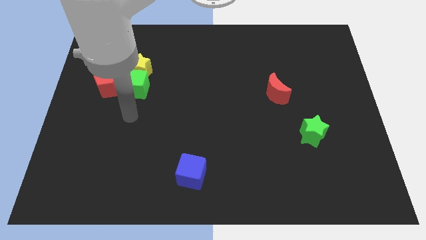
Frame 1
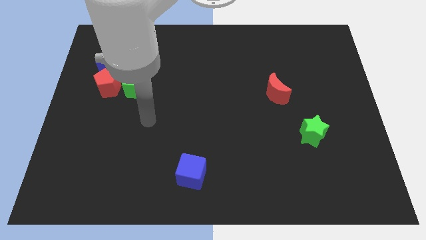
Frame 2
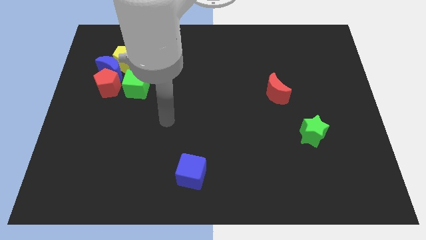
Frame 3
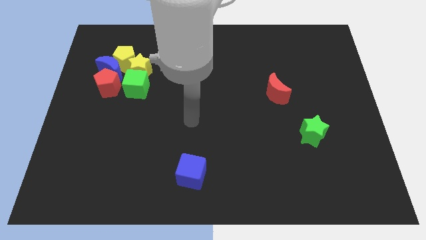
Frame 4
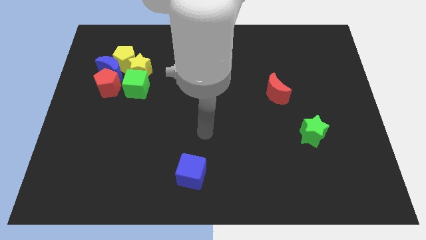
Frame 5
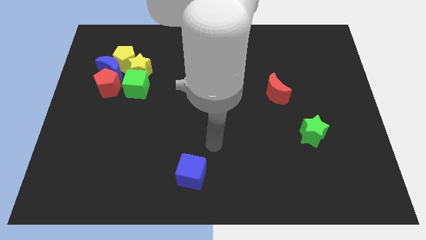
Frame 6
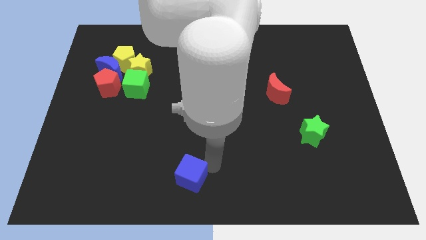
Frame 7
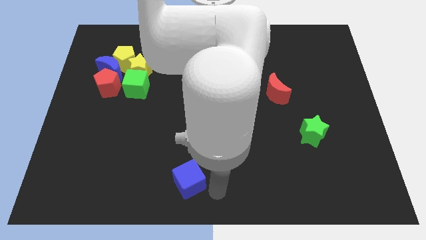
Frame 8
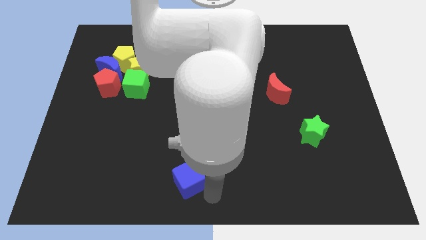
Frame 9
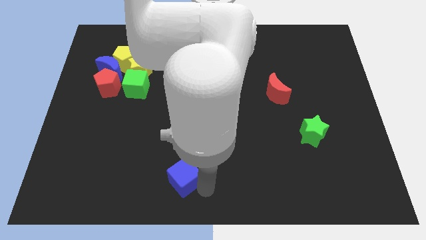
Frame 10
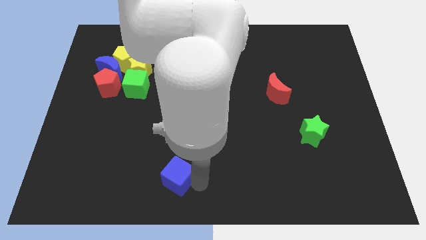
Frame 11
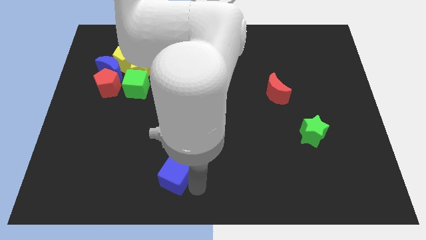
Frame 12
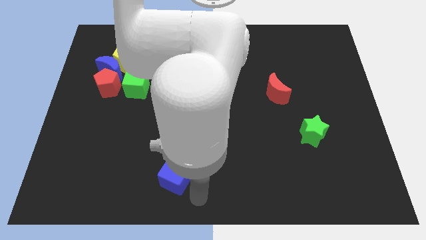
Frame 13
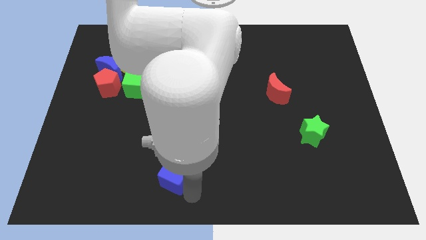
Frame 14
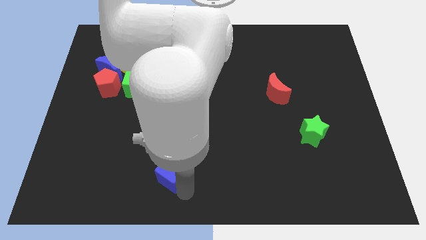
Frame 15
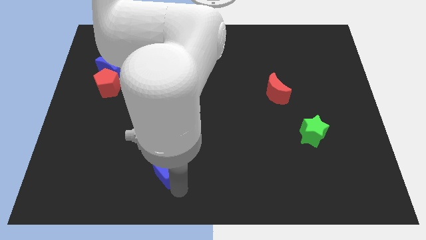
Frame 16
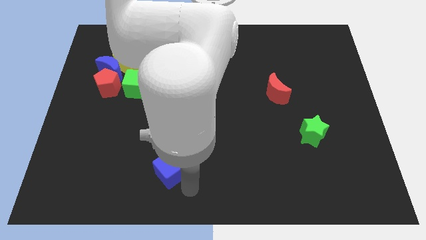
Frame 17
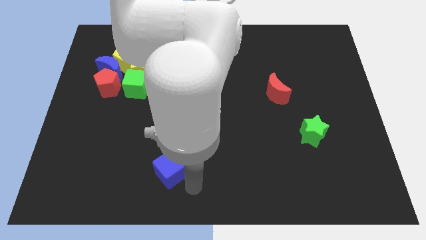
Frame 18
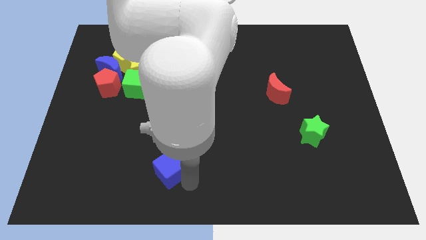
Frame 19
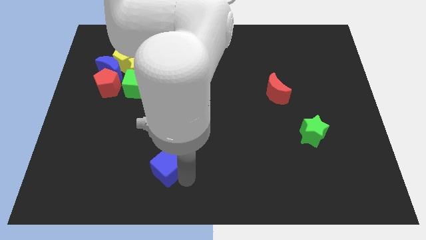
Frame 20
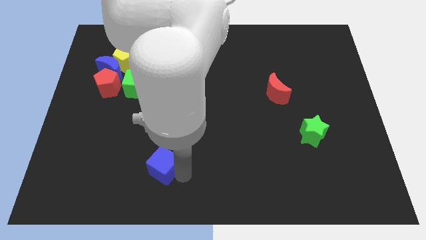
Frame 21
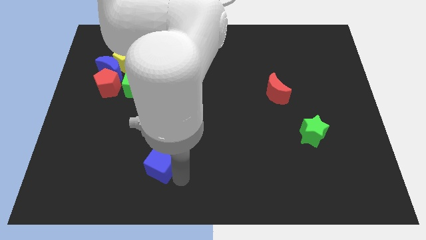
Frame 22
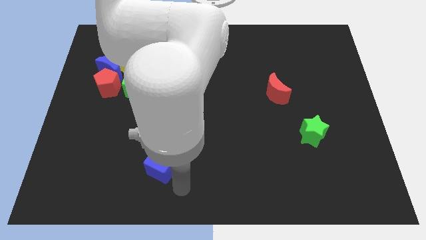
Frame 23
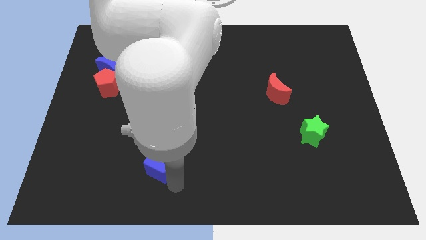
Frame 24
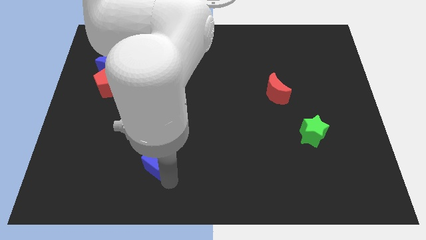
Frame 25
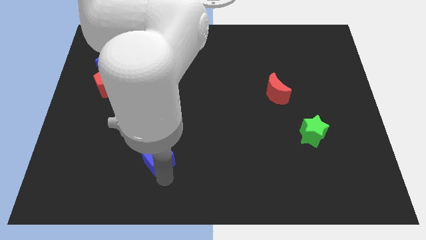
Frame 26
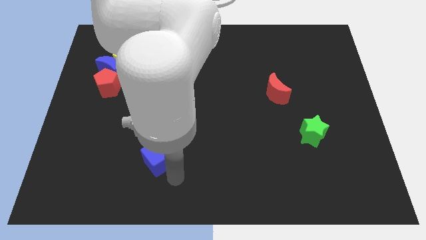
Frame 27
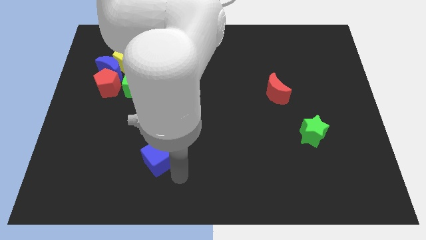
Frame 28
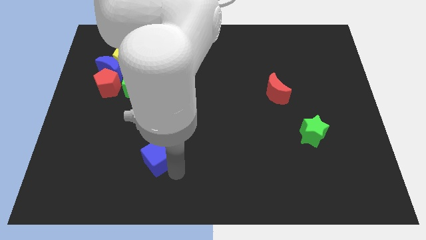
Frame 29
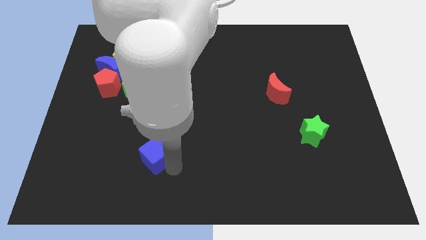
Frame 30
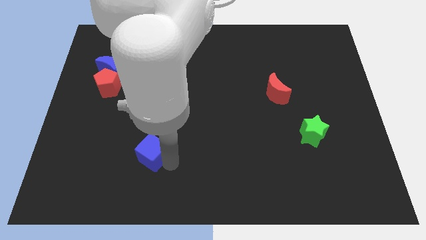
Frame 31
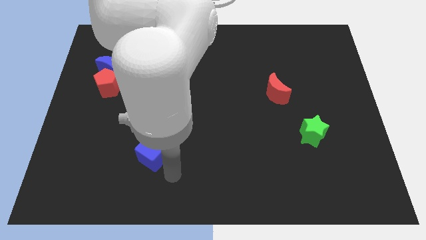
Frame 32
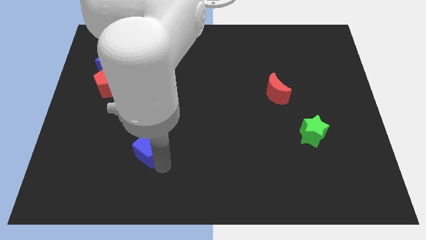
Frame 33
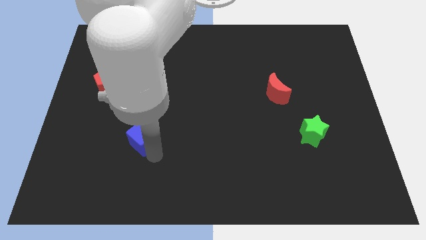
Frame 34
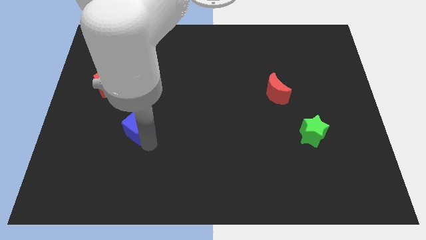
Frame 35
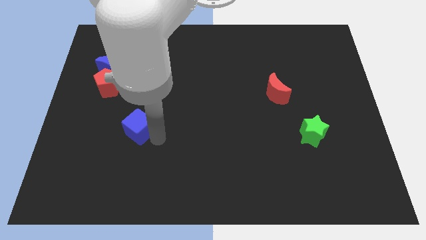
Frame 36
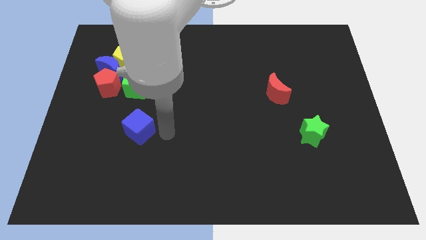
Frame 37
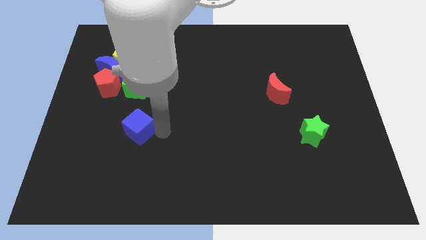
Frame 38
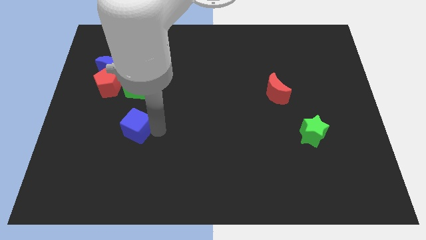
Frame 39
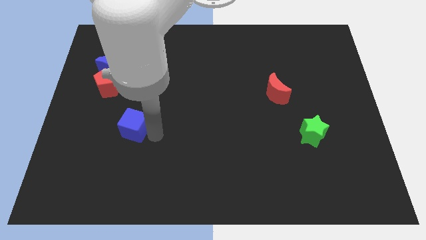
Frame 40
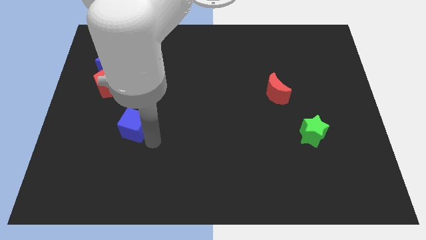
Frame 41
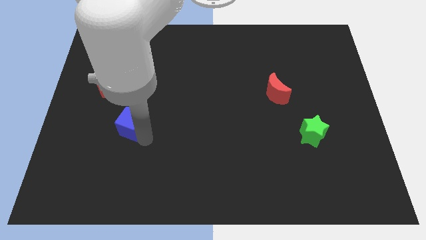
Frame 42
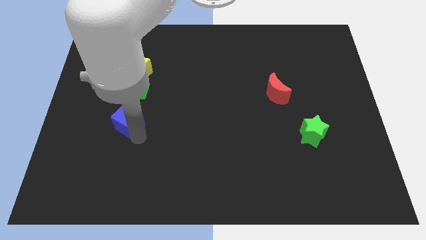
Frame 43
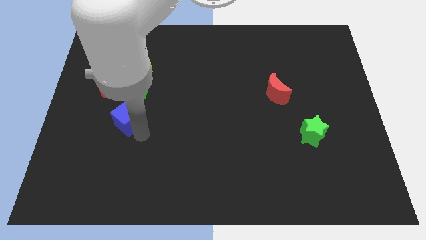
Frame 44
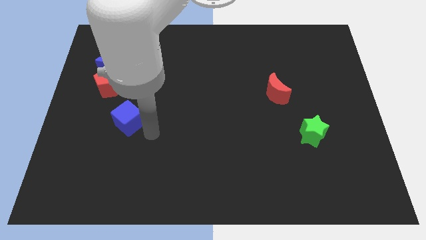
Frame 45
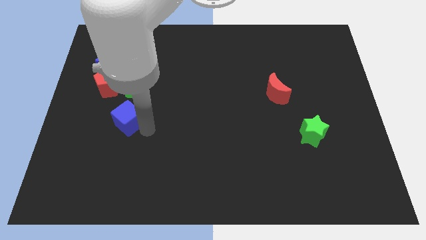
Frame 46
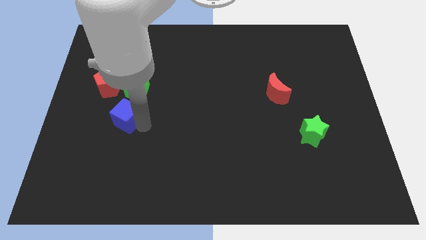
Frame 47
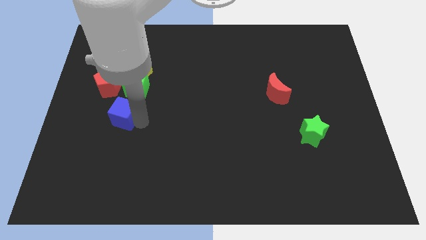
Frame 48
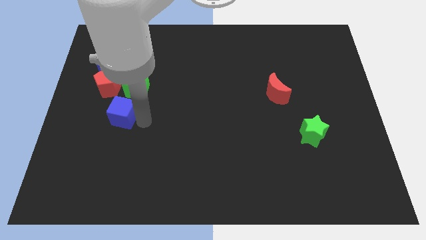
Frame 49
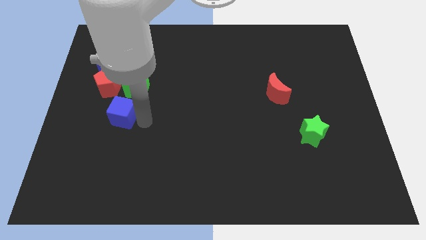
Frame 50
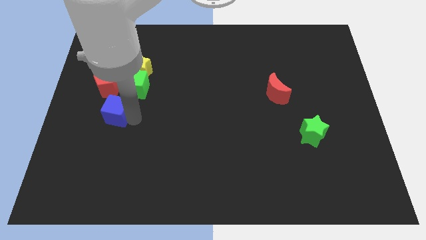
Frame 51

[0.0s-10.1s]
put the blue cube to the bottom of the blue moon

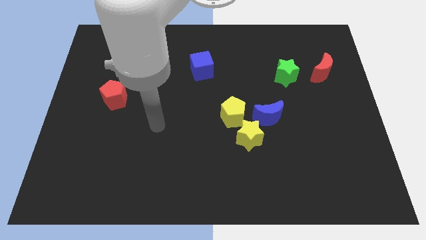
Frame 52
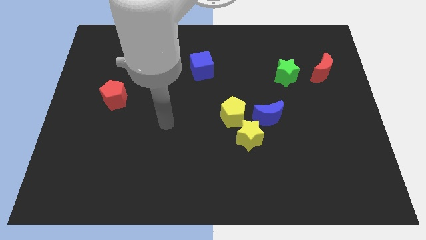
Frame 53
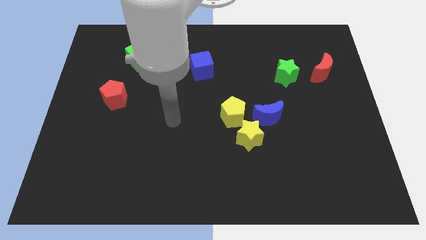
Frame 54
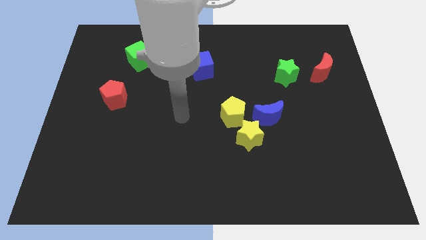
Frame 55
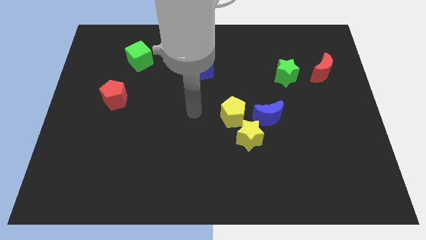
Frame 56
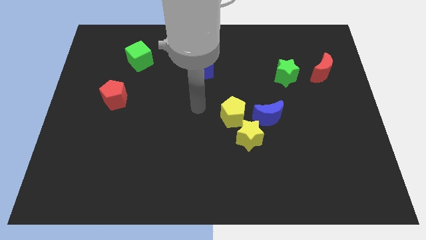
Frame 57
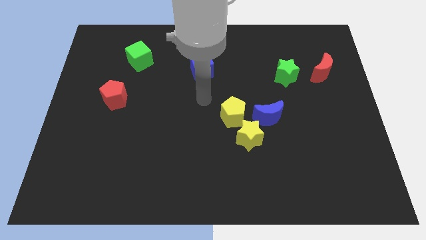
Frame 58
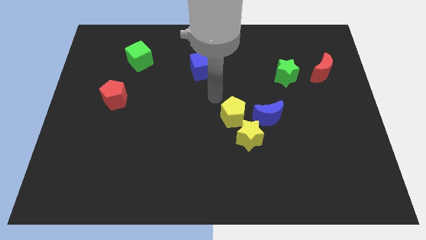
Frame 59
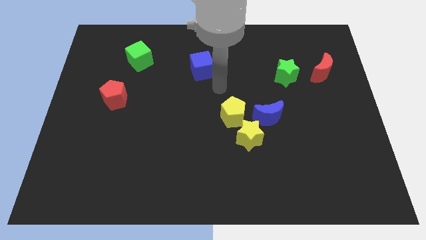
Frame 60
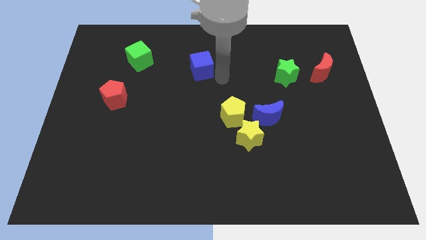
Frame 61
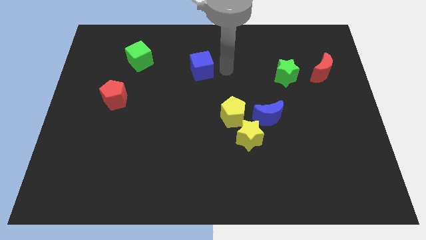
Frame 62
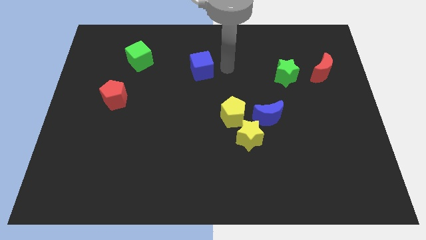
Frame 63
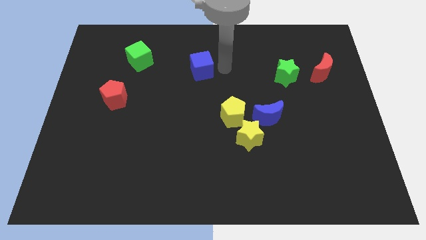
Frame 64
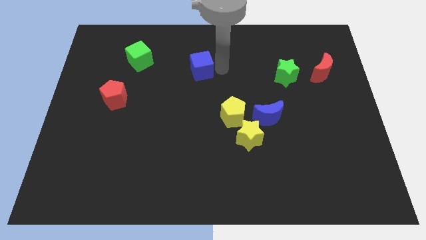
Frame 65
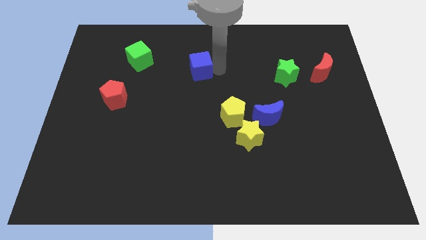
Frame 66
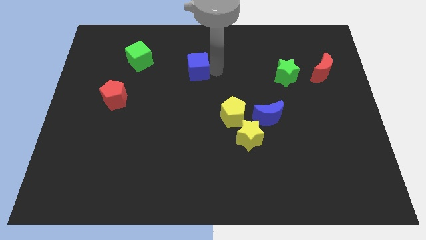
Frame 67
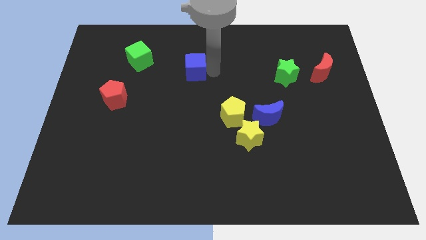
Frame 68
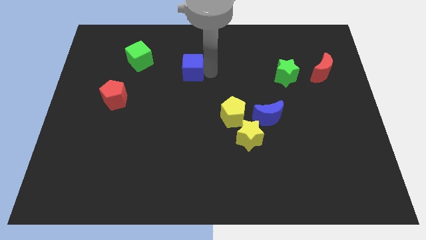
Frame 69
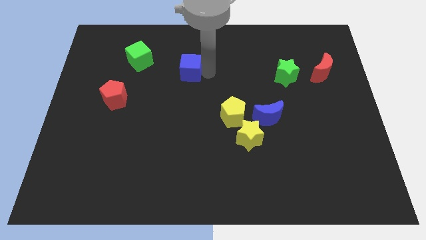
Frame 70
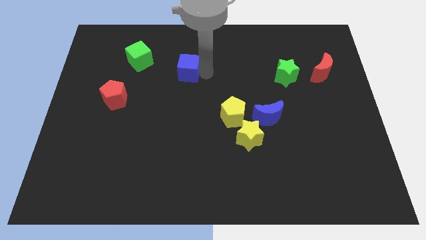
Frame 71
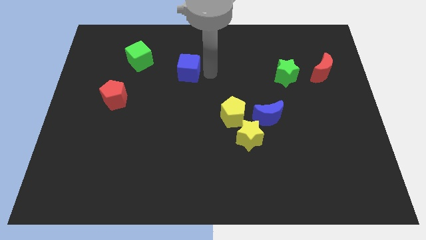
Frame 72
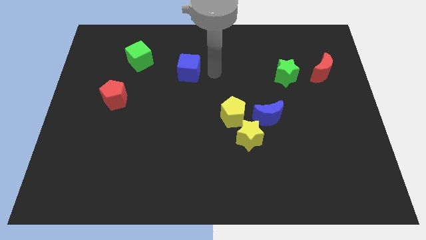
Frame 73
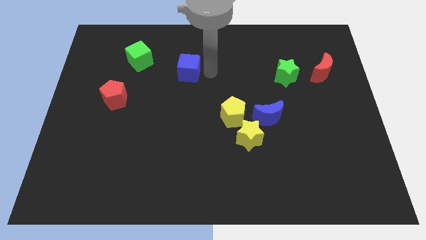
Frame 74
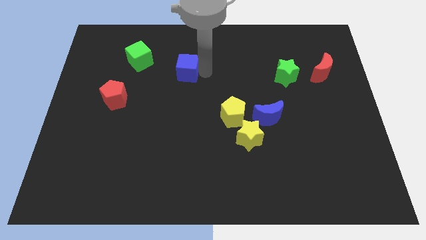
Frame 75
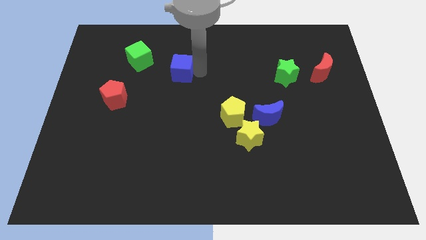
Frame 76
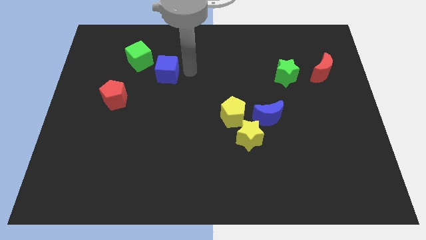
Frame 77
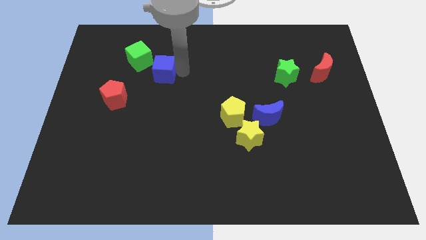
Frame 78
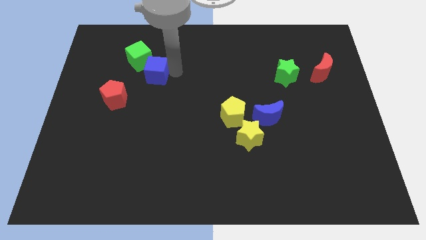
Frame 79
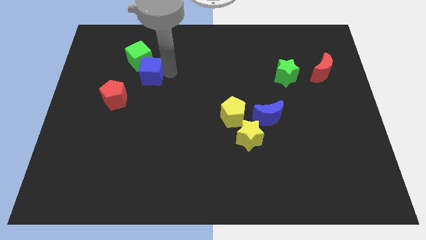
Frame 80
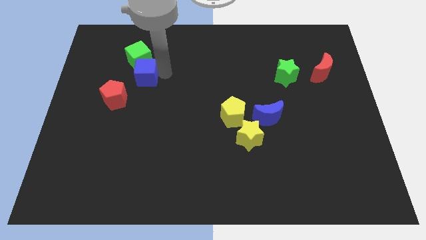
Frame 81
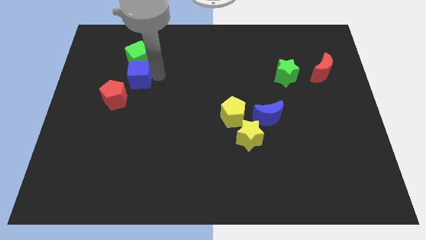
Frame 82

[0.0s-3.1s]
move the blue cube to the top of the red pentagon

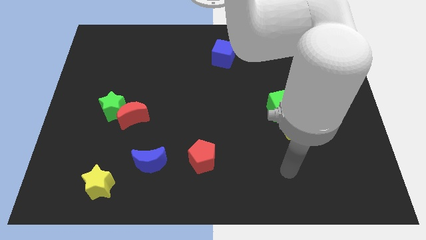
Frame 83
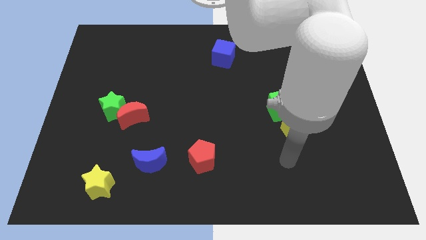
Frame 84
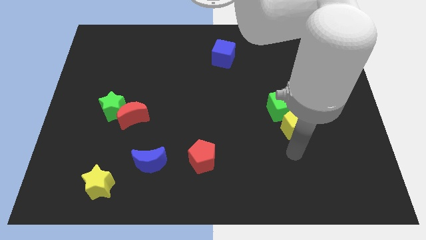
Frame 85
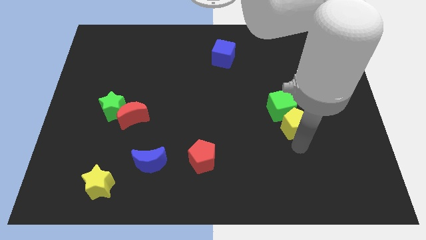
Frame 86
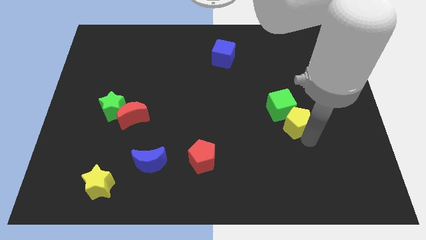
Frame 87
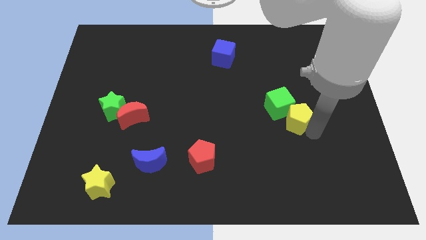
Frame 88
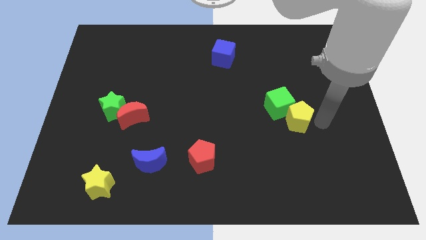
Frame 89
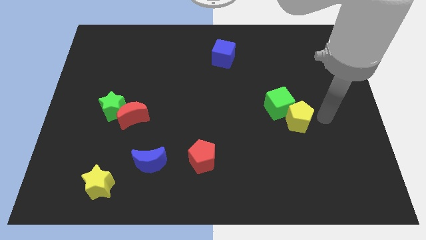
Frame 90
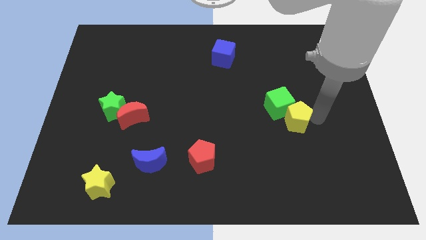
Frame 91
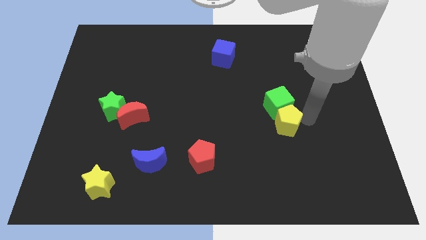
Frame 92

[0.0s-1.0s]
put the yellow pentagon to the bottom left side of the green cube
